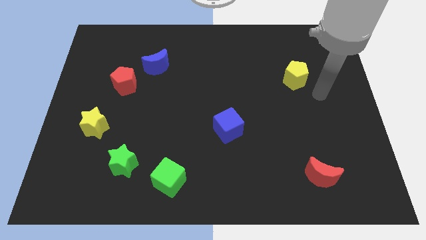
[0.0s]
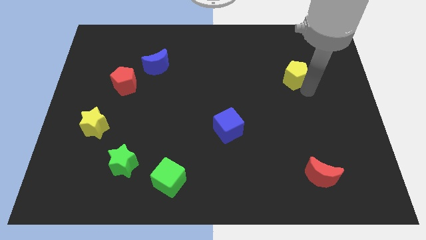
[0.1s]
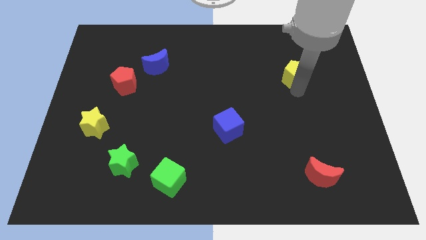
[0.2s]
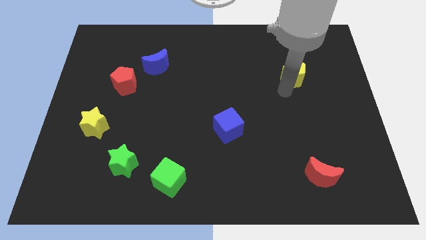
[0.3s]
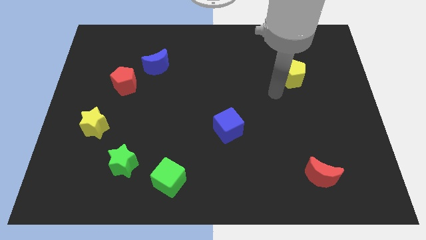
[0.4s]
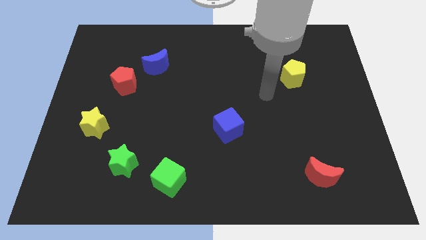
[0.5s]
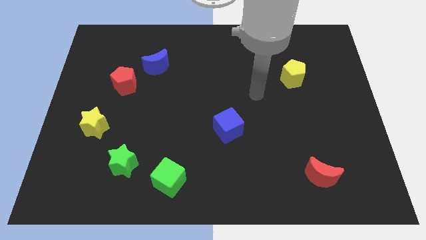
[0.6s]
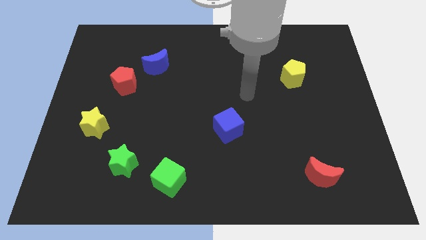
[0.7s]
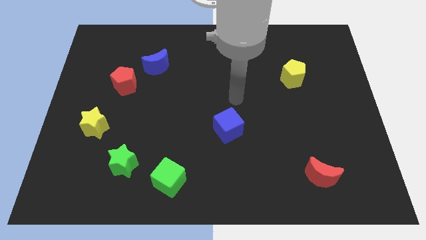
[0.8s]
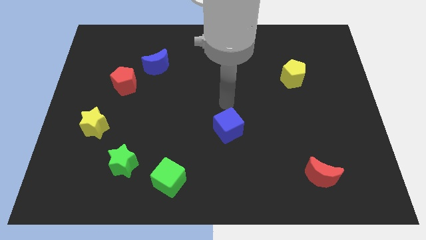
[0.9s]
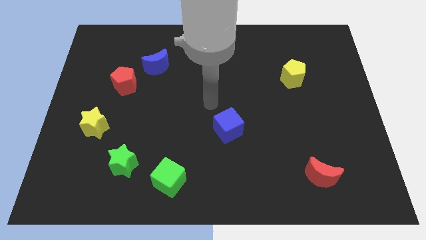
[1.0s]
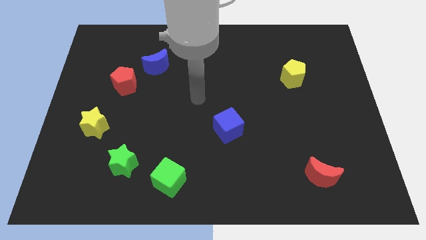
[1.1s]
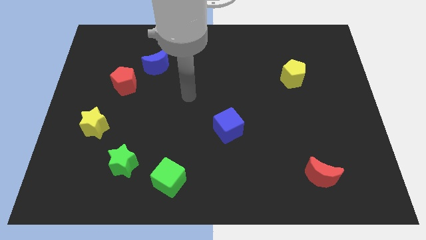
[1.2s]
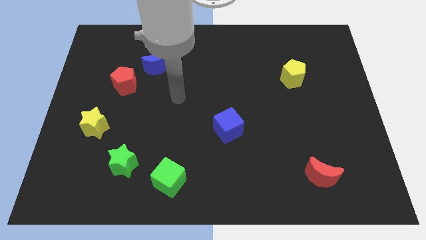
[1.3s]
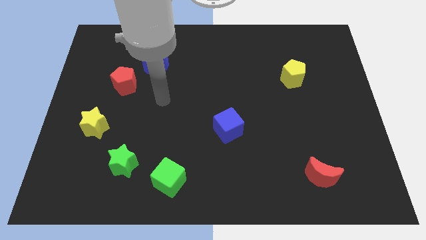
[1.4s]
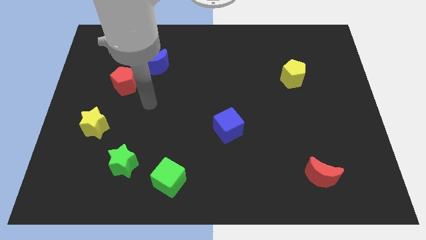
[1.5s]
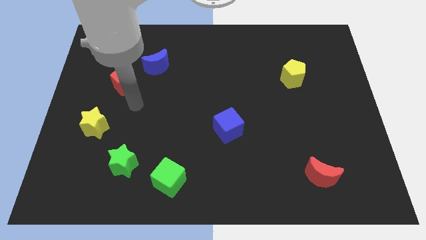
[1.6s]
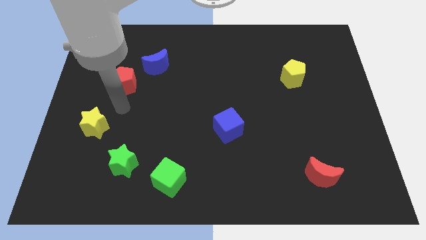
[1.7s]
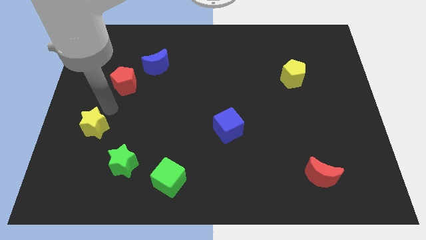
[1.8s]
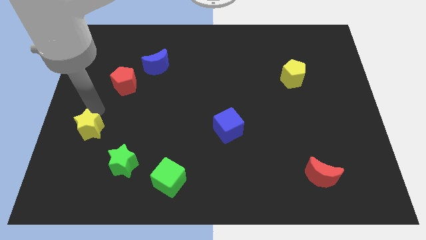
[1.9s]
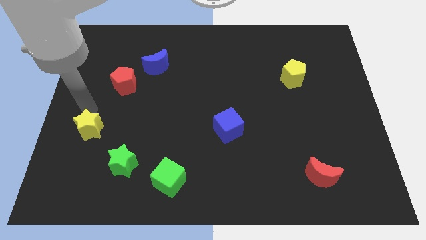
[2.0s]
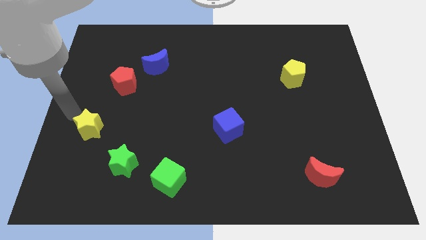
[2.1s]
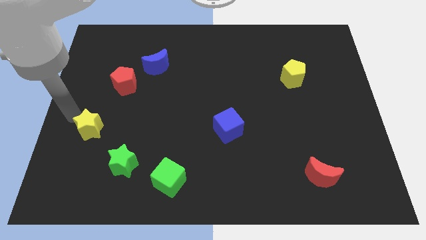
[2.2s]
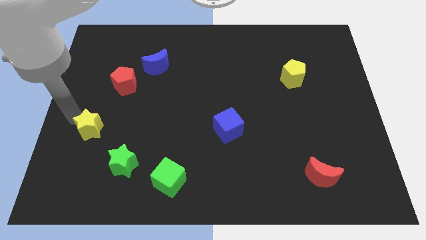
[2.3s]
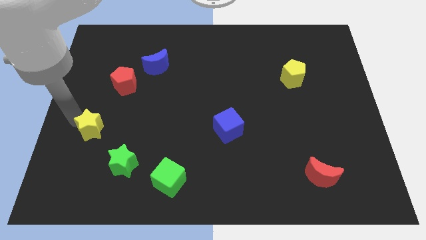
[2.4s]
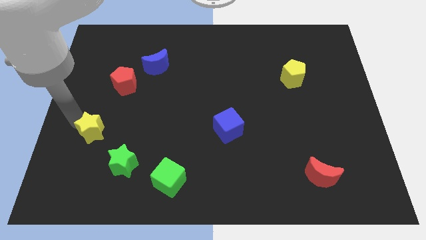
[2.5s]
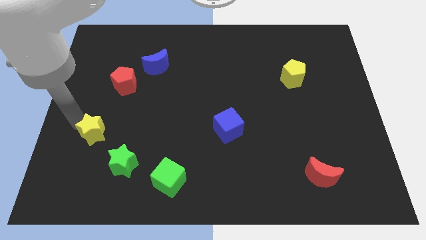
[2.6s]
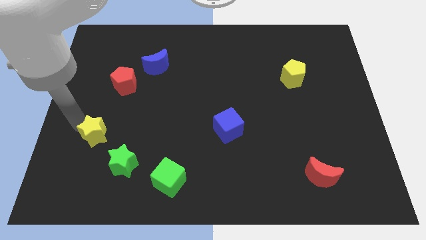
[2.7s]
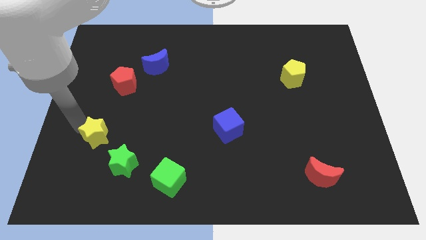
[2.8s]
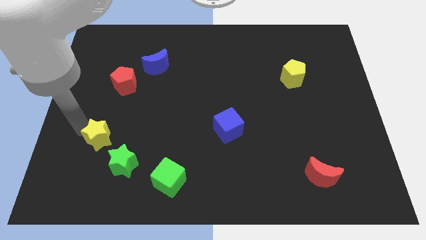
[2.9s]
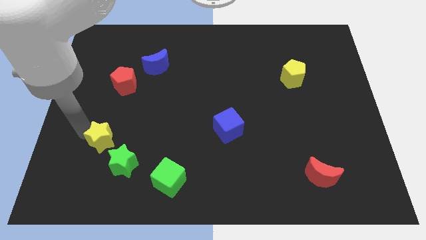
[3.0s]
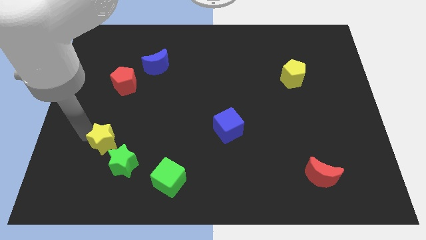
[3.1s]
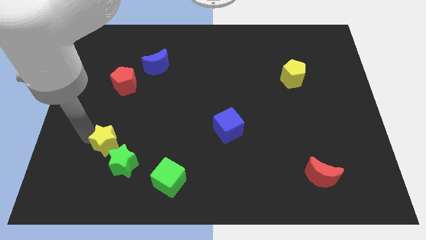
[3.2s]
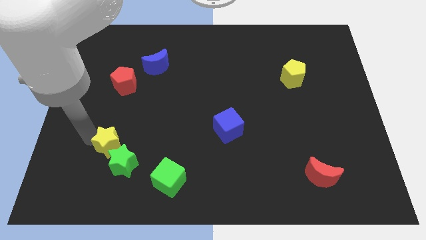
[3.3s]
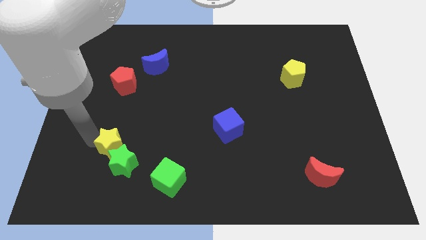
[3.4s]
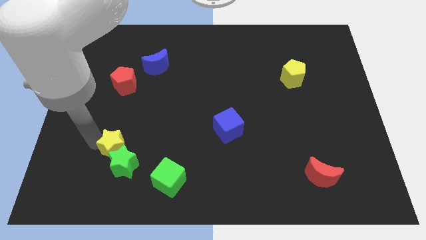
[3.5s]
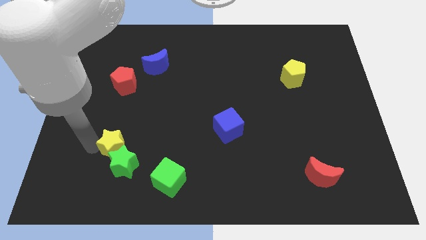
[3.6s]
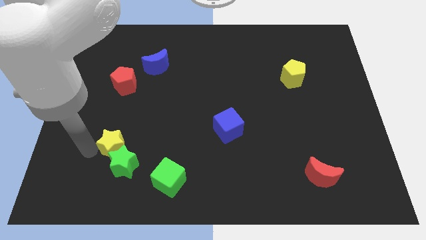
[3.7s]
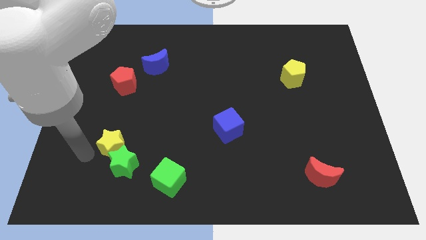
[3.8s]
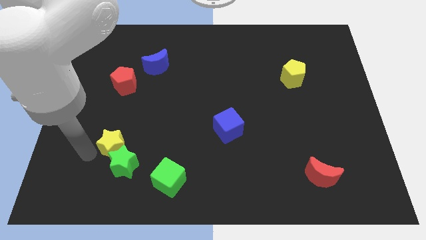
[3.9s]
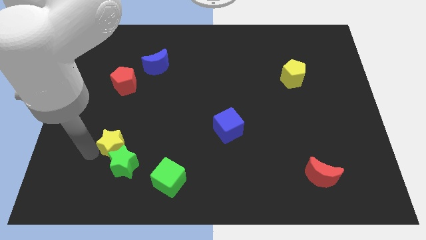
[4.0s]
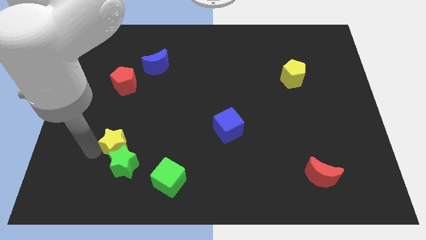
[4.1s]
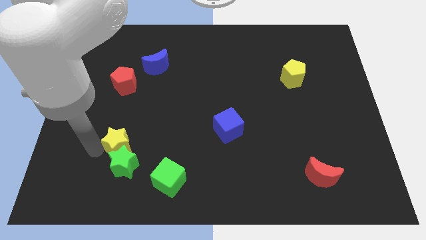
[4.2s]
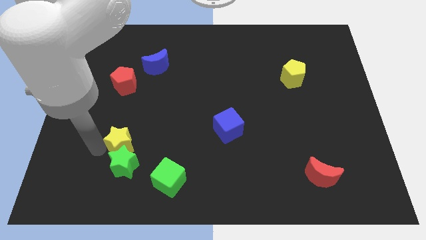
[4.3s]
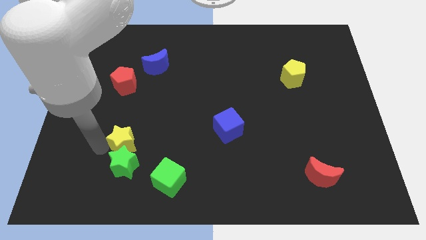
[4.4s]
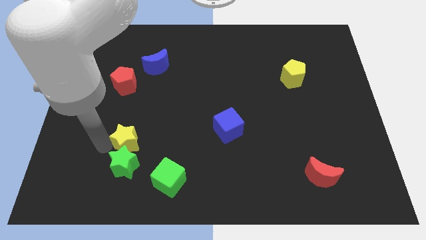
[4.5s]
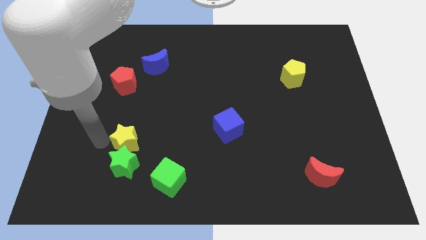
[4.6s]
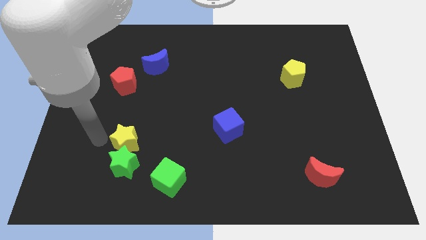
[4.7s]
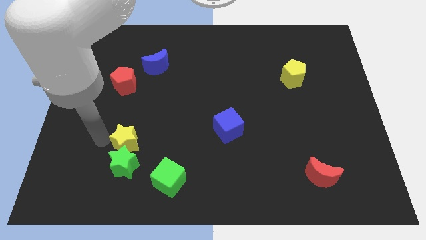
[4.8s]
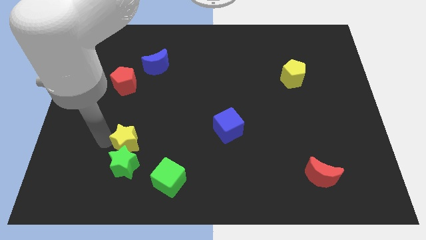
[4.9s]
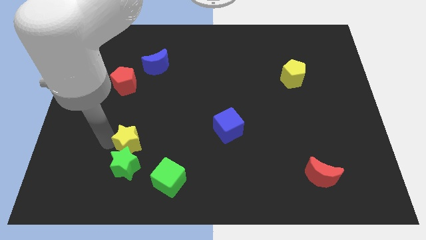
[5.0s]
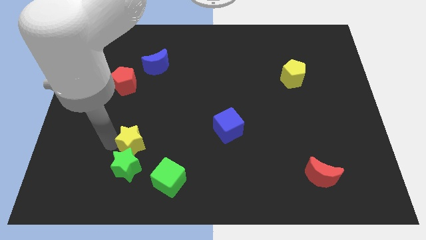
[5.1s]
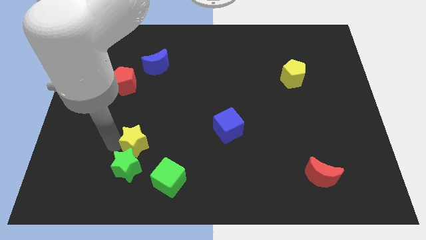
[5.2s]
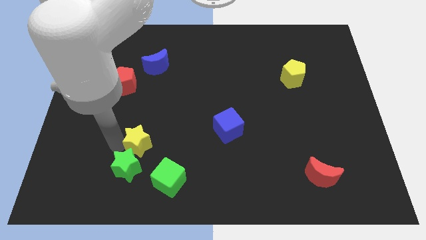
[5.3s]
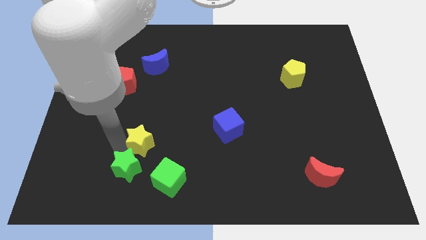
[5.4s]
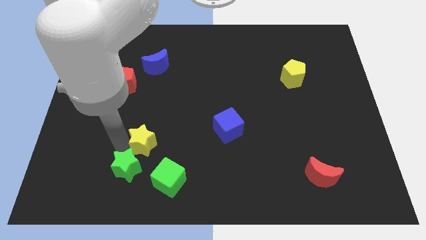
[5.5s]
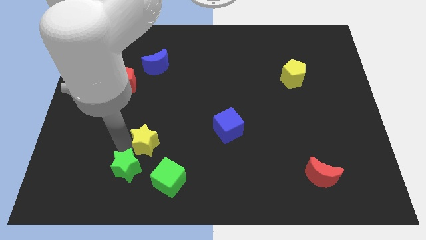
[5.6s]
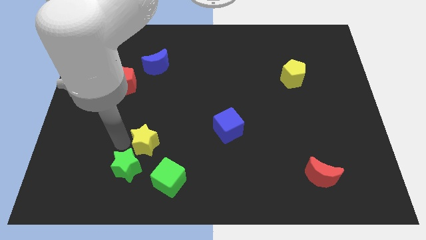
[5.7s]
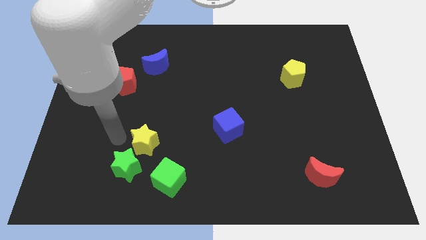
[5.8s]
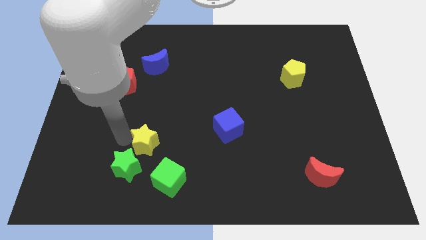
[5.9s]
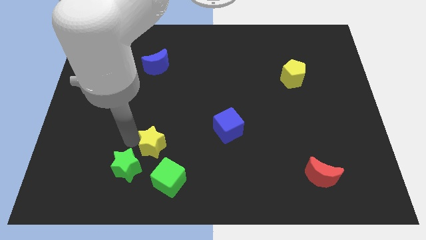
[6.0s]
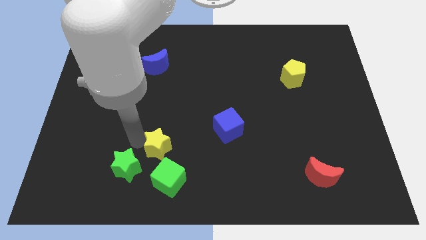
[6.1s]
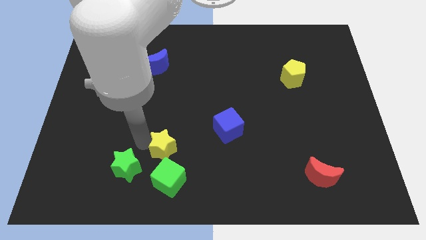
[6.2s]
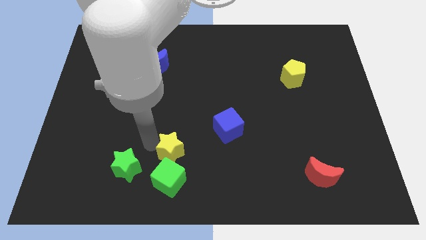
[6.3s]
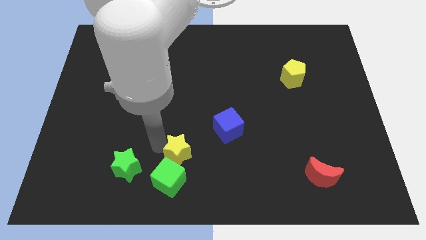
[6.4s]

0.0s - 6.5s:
put the yellow star diagonally up and to the right of the green cube

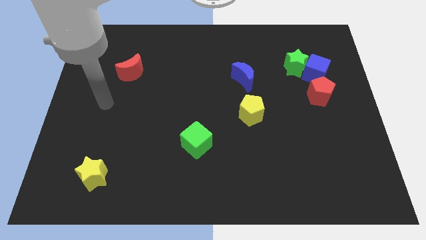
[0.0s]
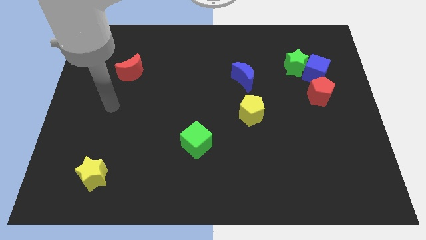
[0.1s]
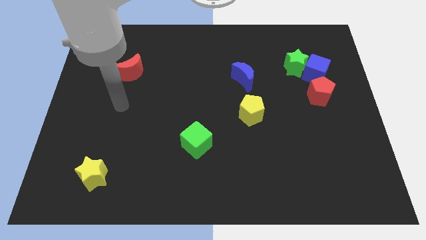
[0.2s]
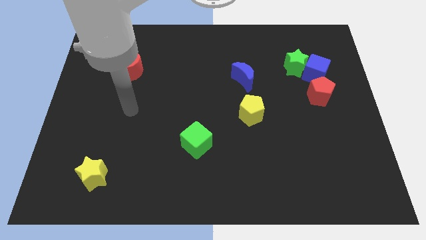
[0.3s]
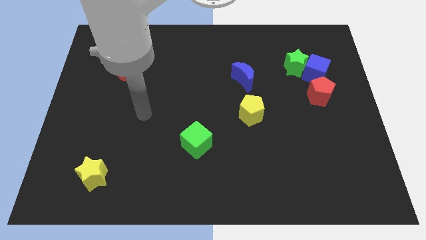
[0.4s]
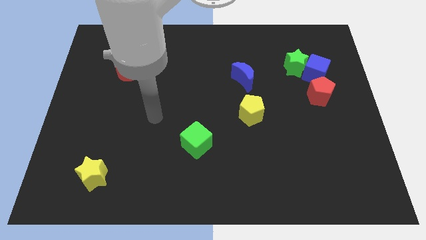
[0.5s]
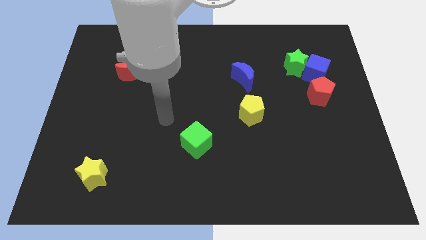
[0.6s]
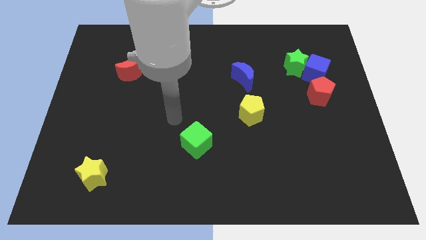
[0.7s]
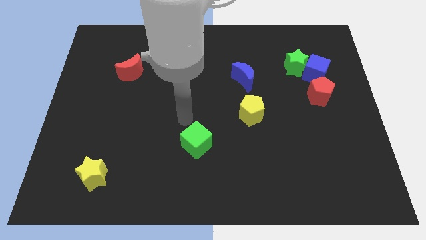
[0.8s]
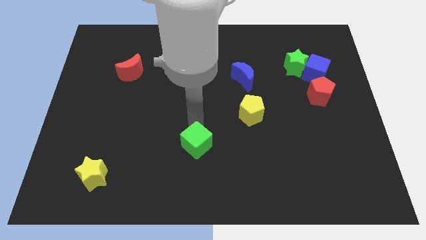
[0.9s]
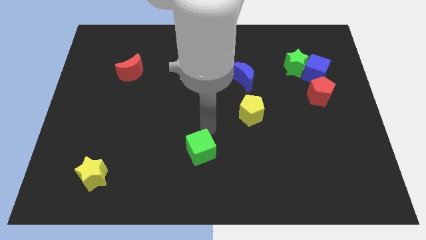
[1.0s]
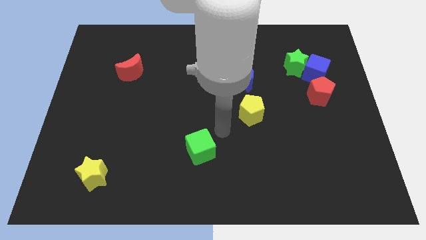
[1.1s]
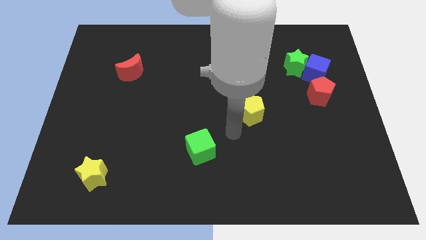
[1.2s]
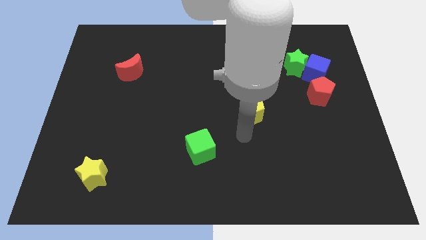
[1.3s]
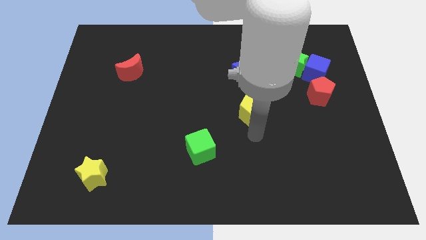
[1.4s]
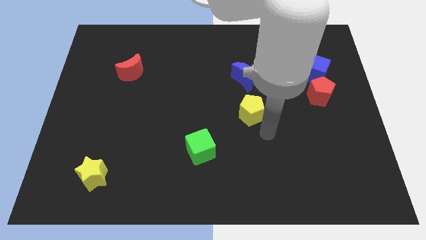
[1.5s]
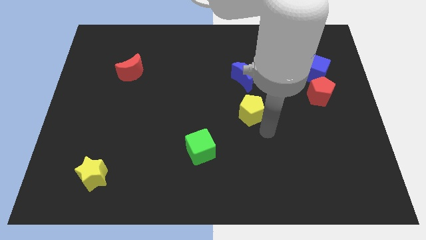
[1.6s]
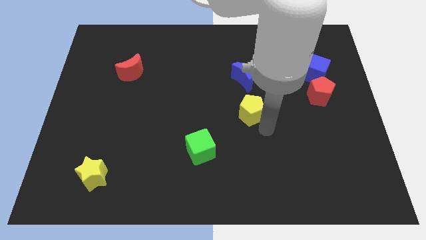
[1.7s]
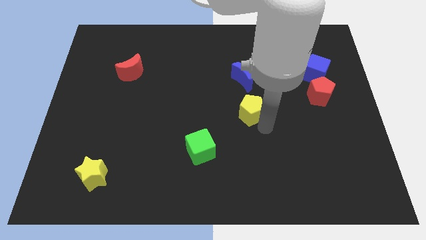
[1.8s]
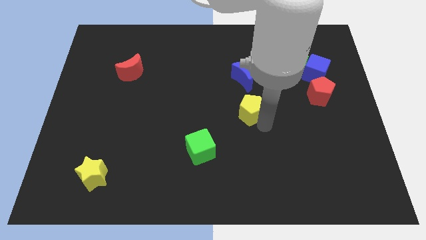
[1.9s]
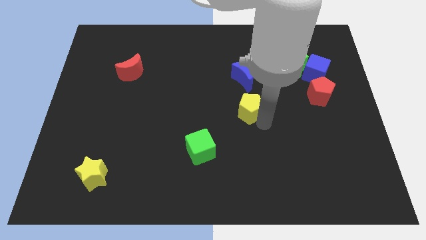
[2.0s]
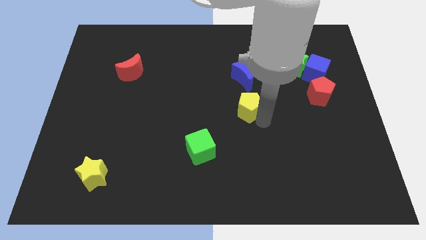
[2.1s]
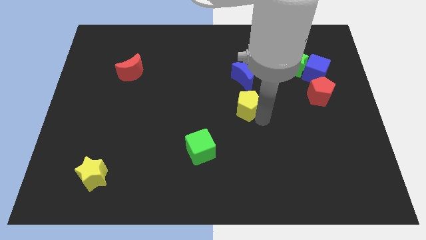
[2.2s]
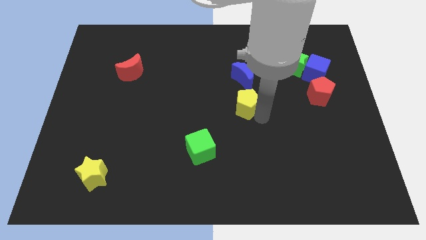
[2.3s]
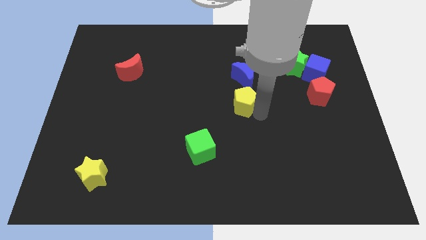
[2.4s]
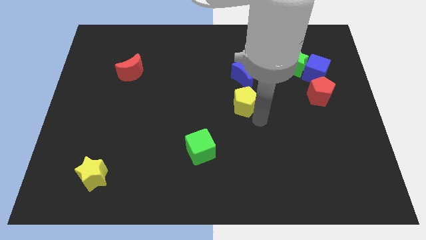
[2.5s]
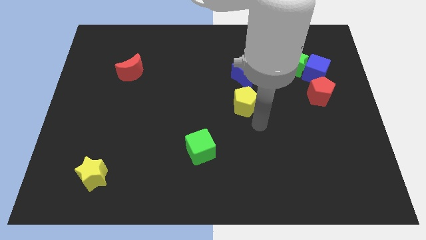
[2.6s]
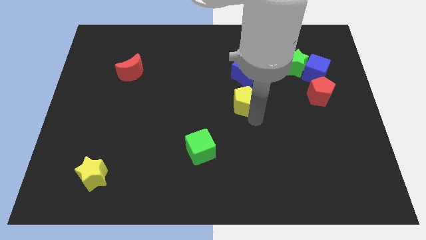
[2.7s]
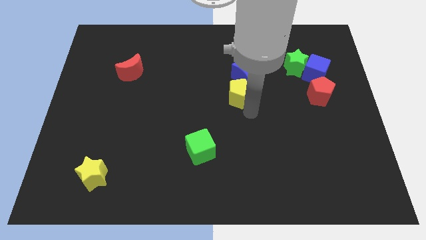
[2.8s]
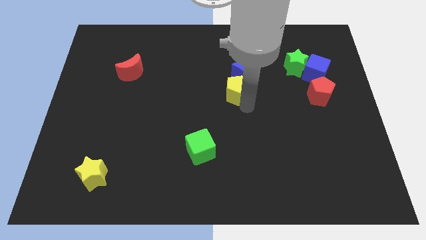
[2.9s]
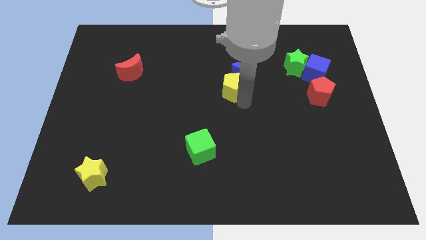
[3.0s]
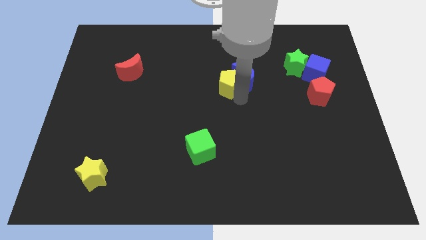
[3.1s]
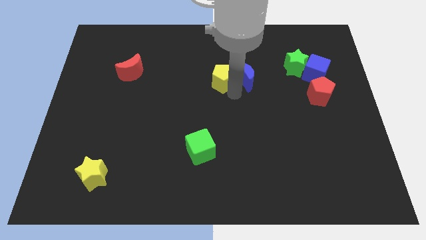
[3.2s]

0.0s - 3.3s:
slide the yellow pentagon diagonally up and to the left of the blue moon
